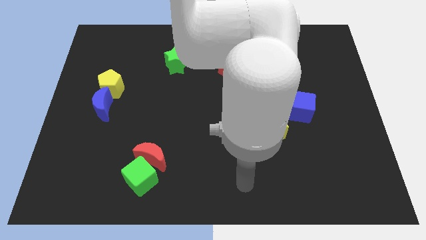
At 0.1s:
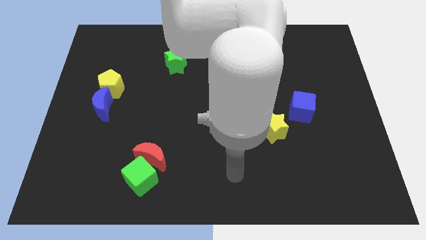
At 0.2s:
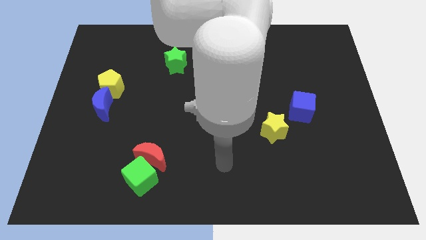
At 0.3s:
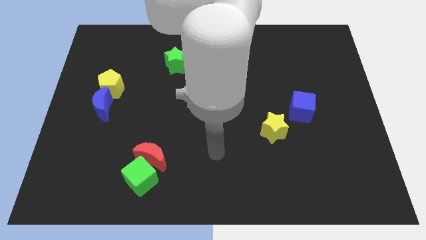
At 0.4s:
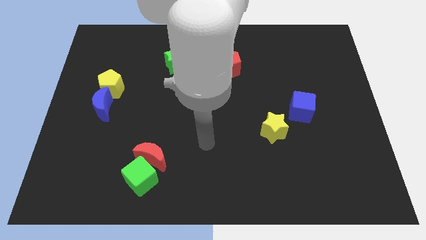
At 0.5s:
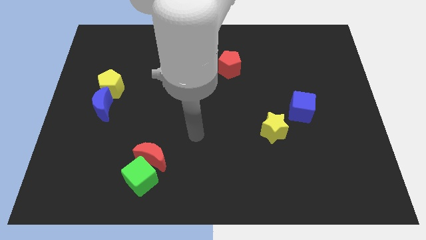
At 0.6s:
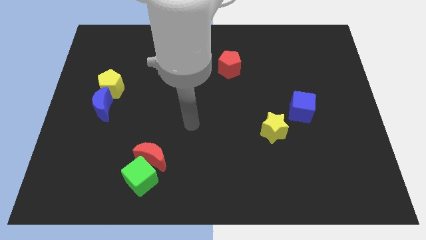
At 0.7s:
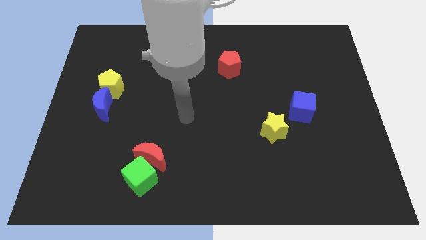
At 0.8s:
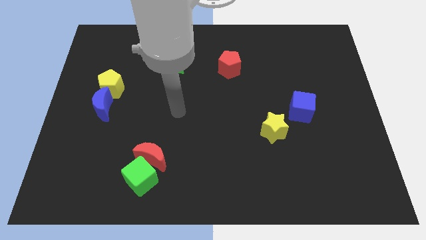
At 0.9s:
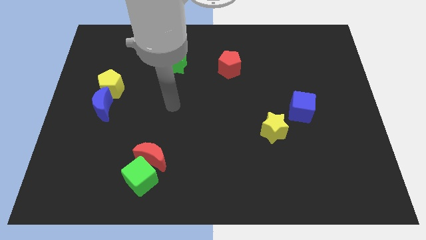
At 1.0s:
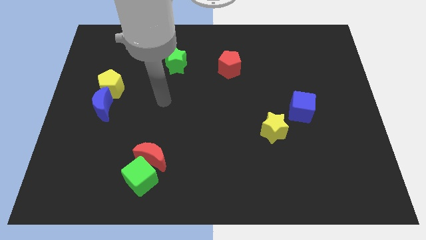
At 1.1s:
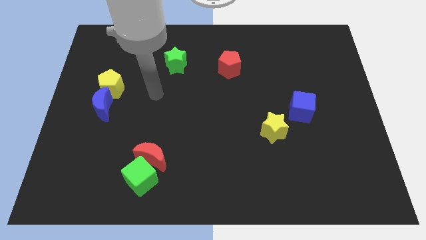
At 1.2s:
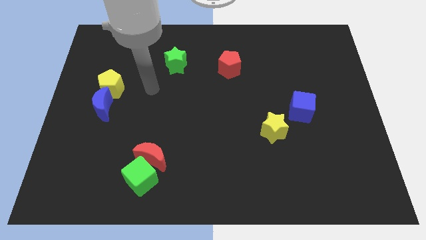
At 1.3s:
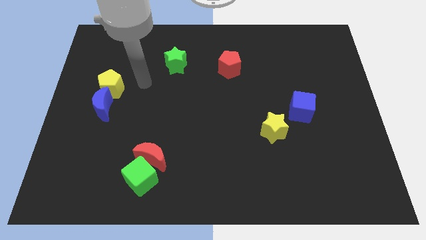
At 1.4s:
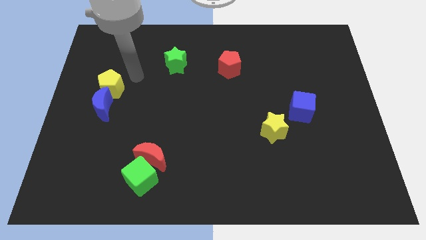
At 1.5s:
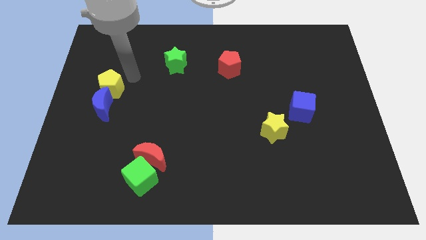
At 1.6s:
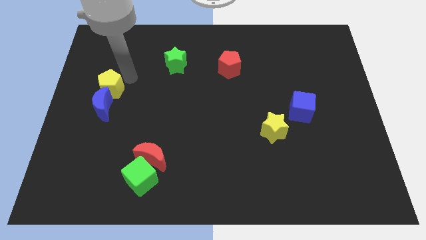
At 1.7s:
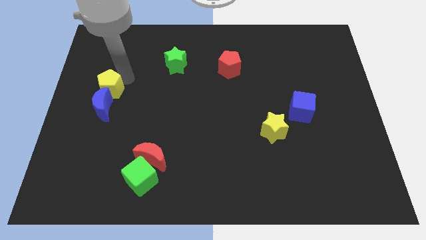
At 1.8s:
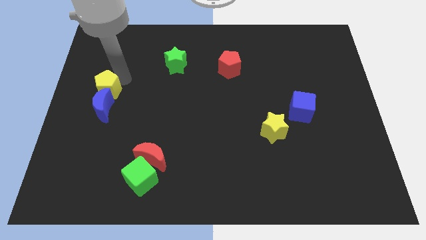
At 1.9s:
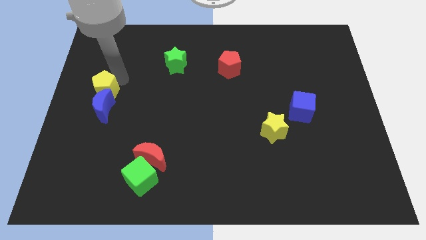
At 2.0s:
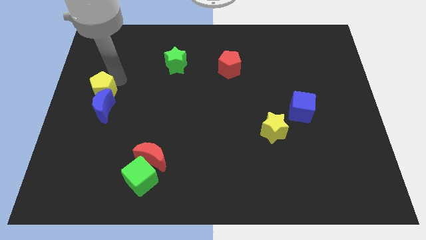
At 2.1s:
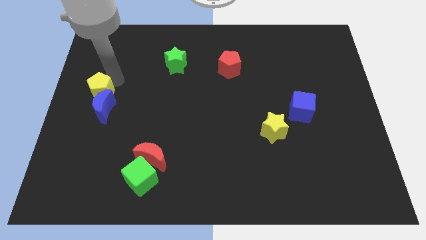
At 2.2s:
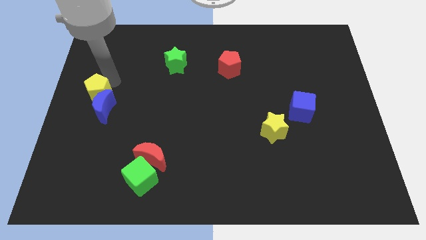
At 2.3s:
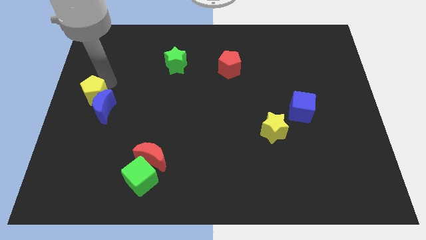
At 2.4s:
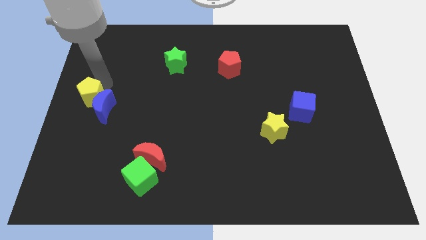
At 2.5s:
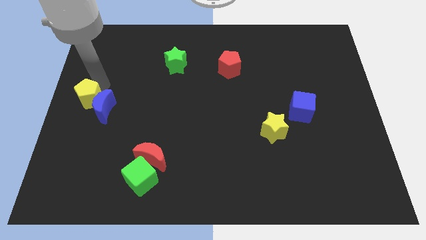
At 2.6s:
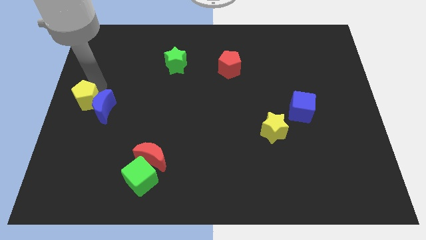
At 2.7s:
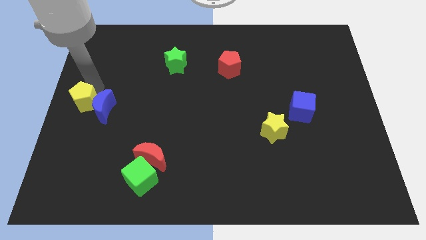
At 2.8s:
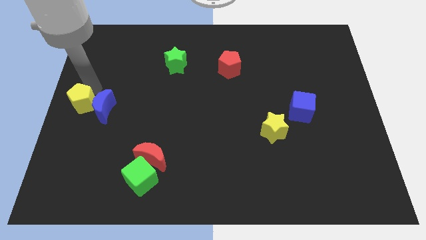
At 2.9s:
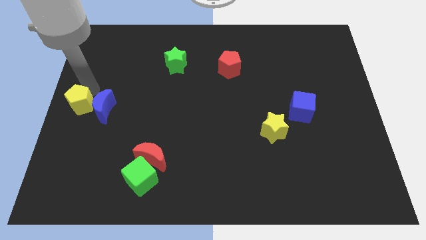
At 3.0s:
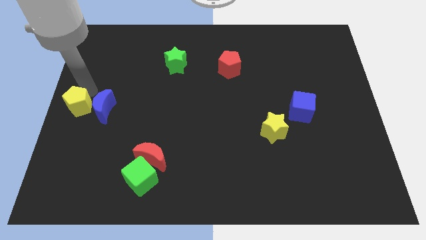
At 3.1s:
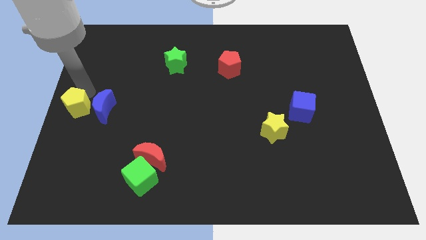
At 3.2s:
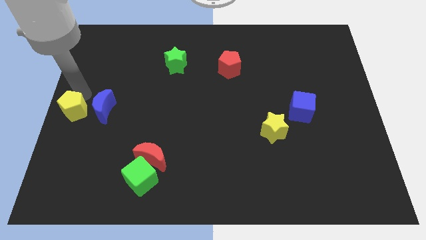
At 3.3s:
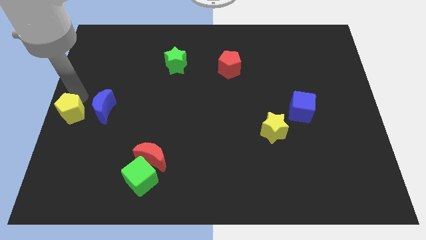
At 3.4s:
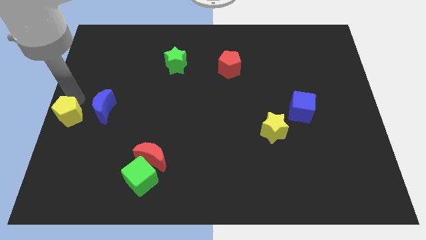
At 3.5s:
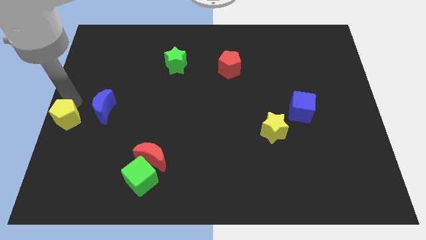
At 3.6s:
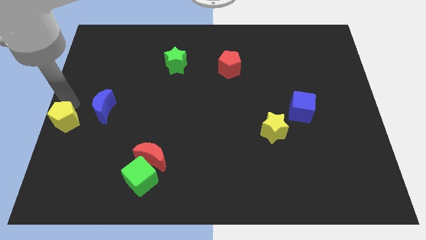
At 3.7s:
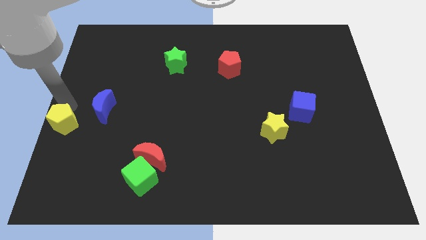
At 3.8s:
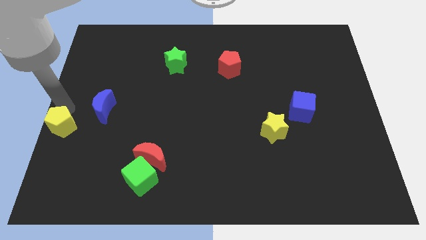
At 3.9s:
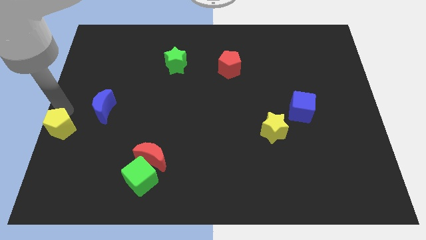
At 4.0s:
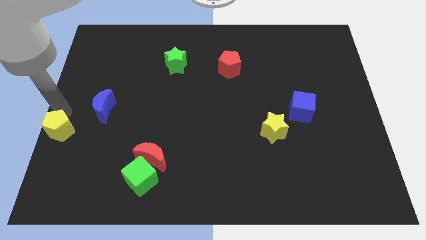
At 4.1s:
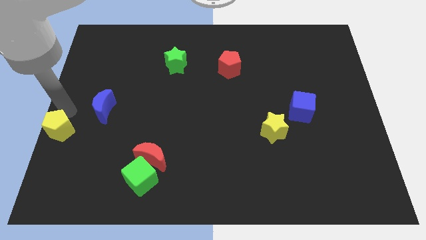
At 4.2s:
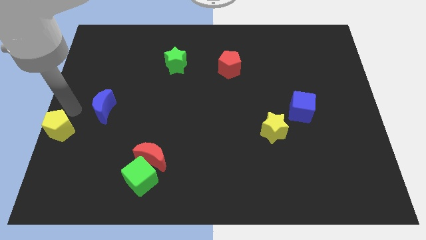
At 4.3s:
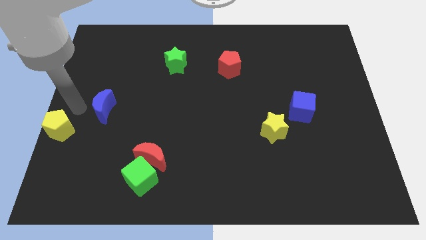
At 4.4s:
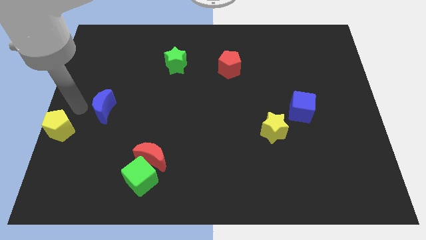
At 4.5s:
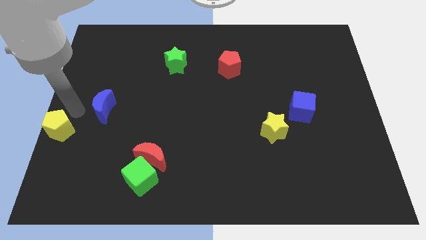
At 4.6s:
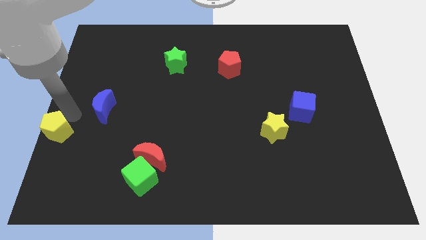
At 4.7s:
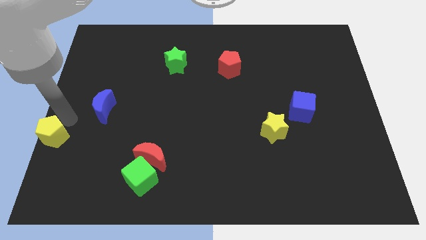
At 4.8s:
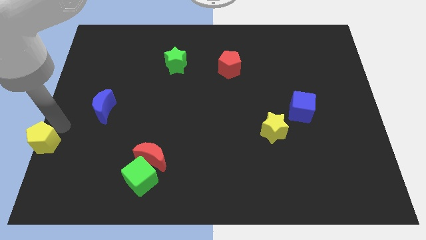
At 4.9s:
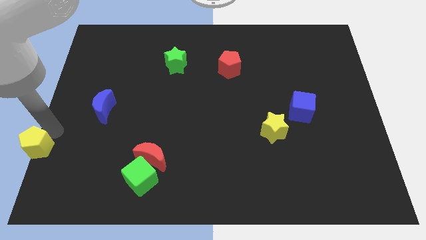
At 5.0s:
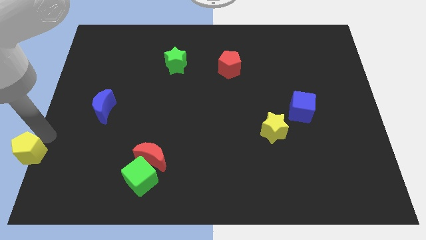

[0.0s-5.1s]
put the yellow pentagon to the bottom left of the board

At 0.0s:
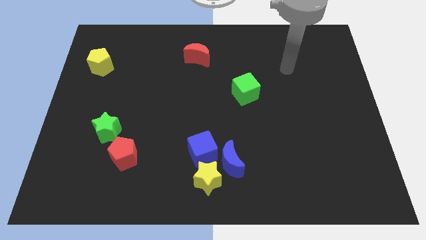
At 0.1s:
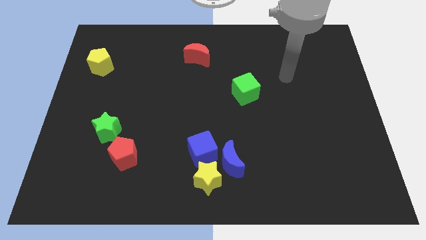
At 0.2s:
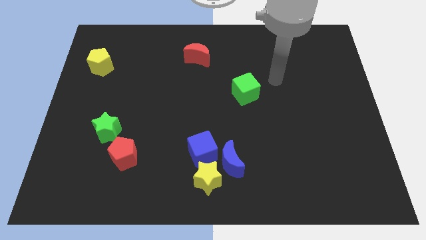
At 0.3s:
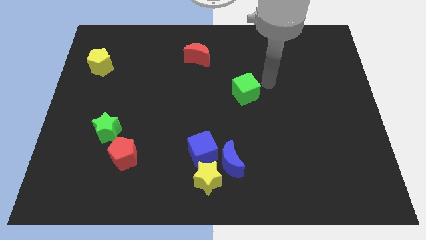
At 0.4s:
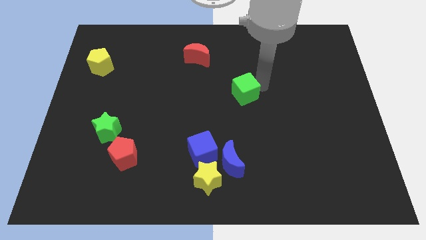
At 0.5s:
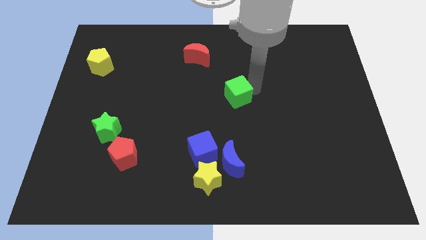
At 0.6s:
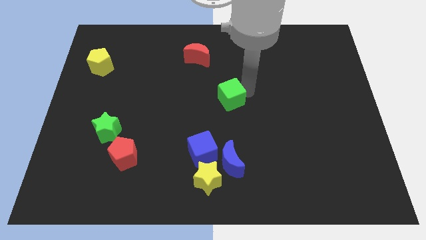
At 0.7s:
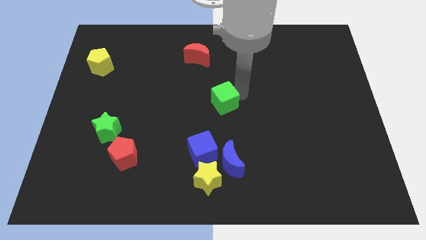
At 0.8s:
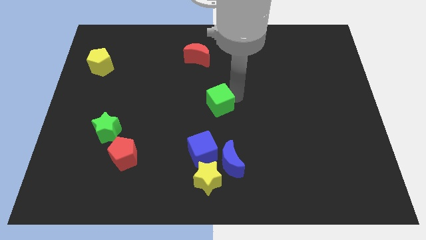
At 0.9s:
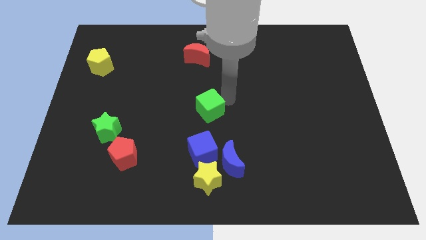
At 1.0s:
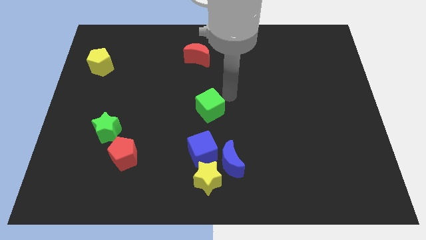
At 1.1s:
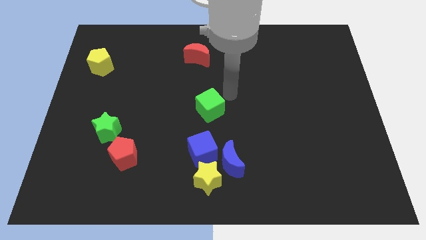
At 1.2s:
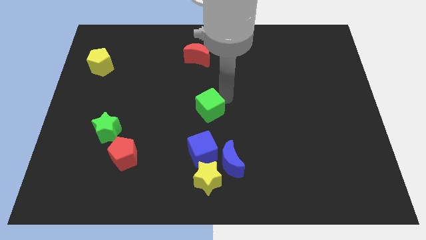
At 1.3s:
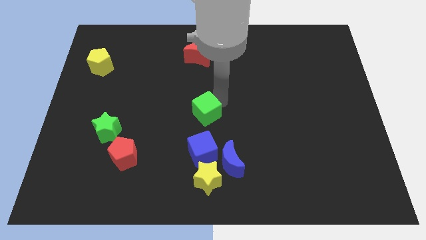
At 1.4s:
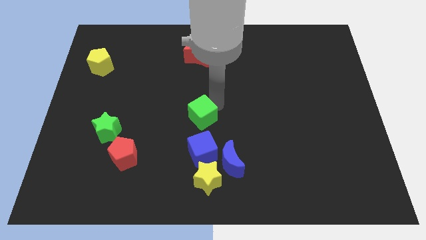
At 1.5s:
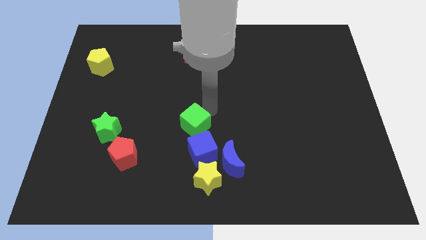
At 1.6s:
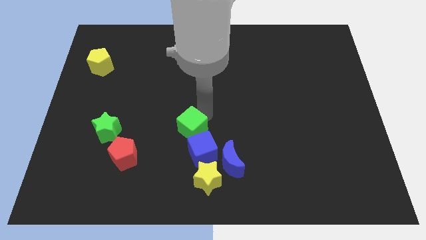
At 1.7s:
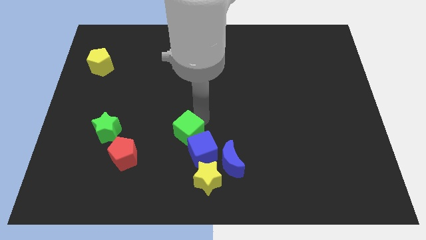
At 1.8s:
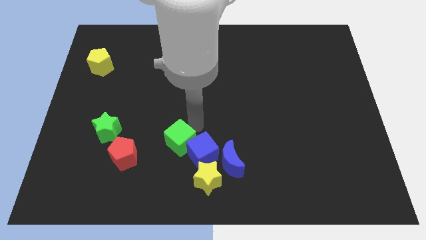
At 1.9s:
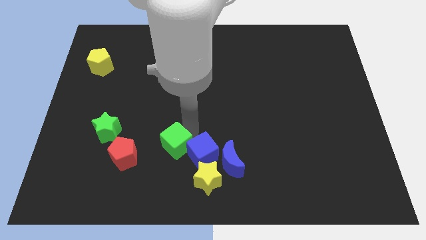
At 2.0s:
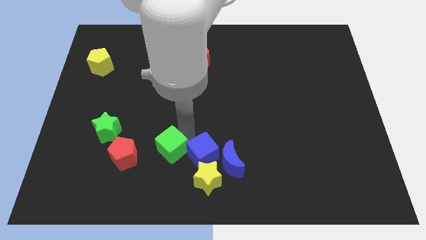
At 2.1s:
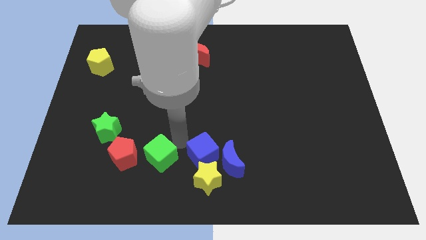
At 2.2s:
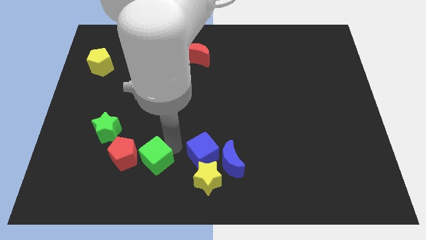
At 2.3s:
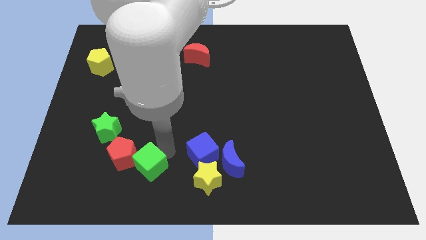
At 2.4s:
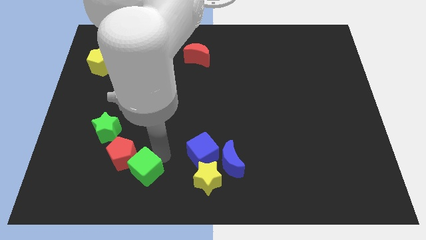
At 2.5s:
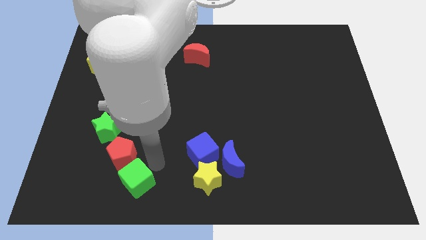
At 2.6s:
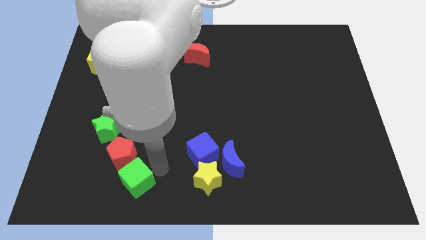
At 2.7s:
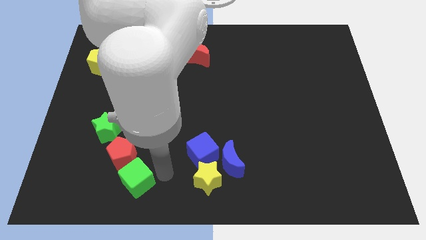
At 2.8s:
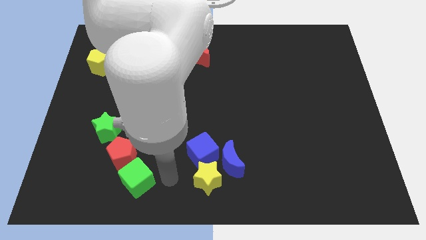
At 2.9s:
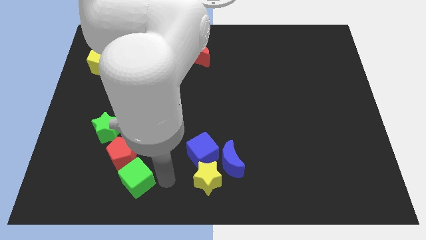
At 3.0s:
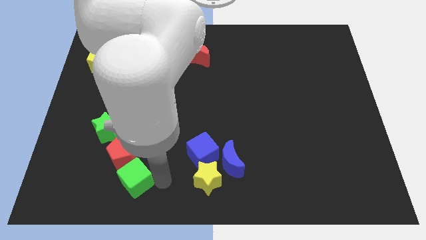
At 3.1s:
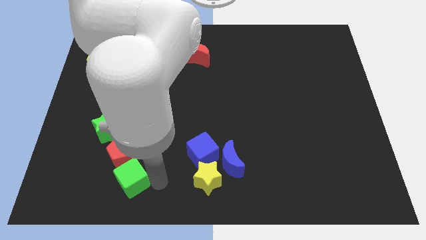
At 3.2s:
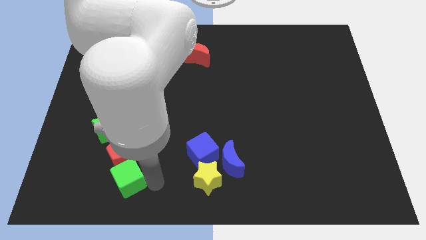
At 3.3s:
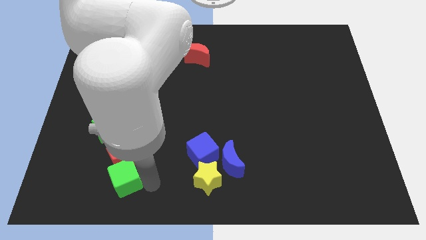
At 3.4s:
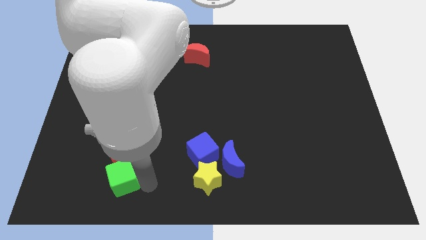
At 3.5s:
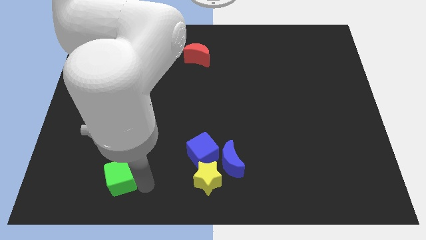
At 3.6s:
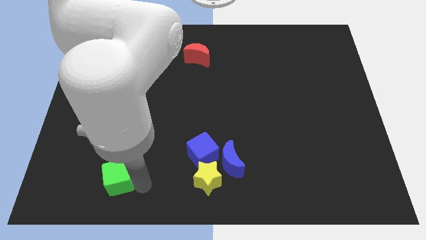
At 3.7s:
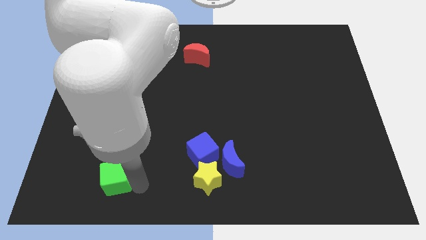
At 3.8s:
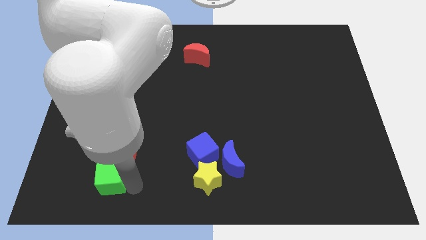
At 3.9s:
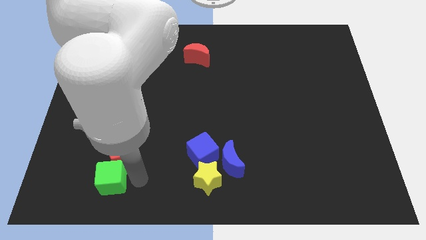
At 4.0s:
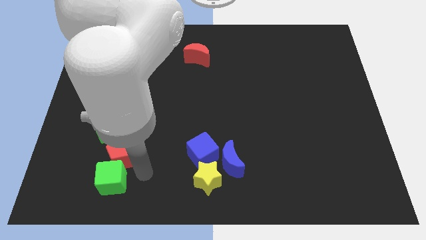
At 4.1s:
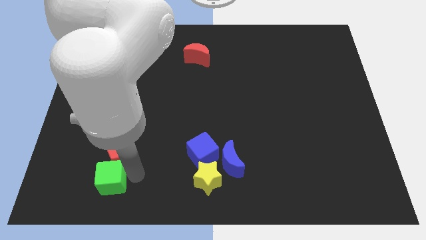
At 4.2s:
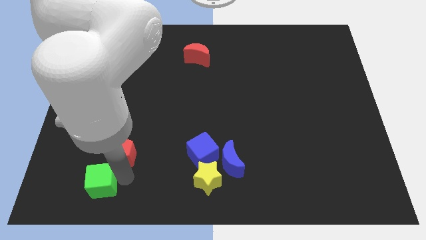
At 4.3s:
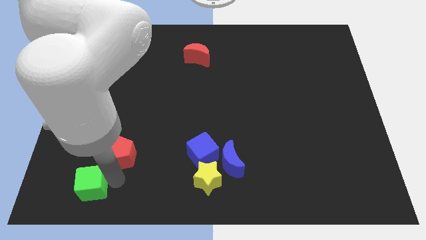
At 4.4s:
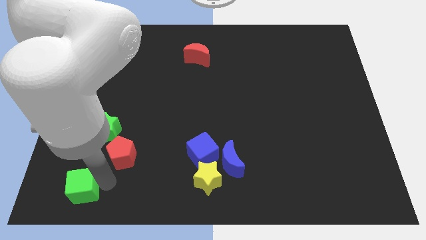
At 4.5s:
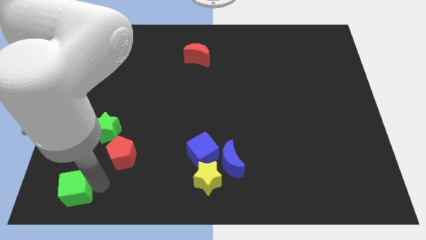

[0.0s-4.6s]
move the green cube to the bottom left of the board
